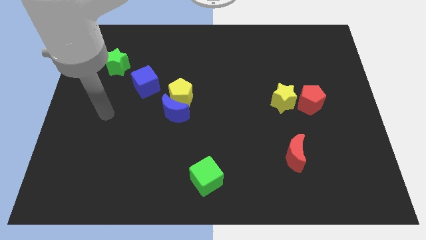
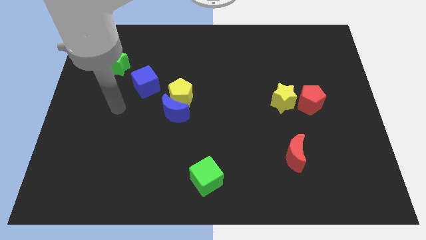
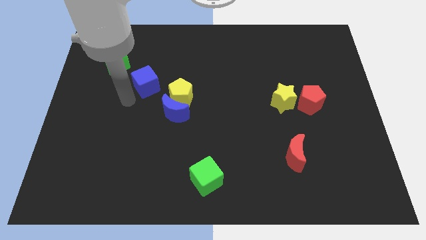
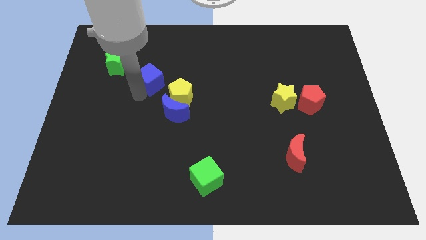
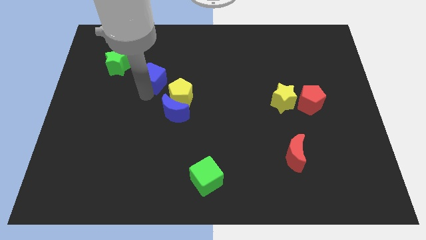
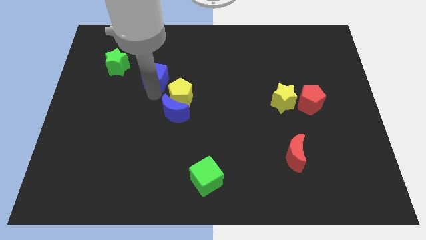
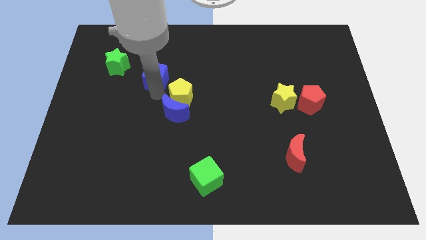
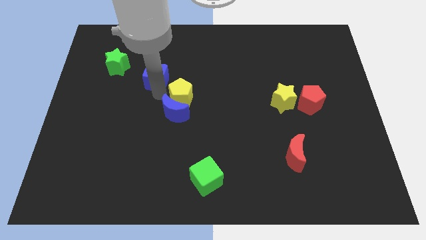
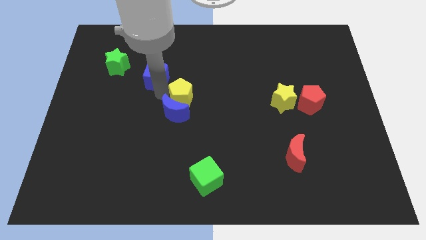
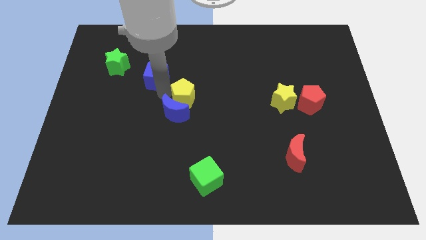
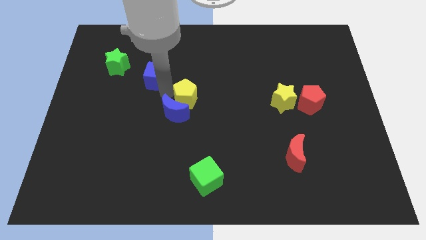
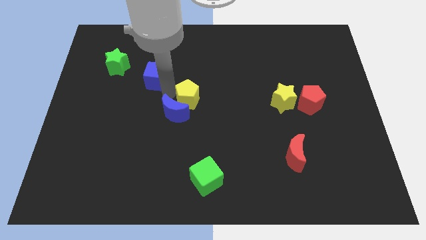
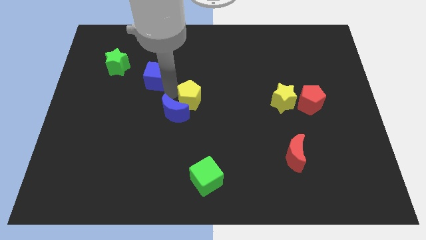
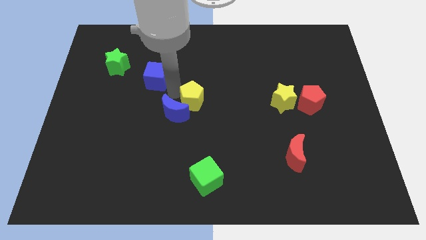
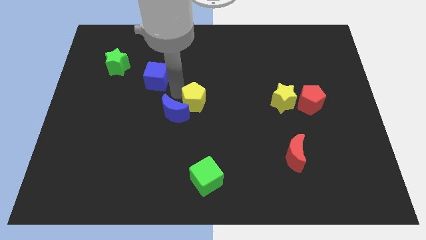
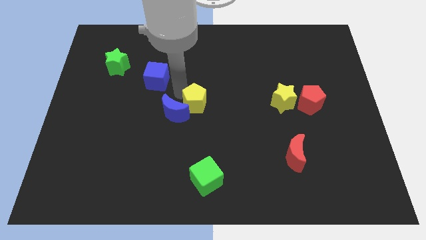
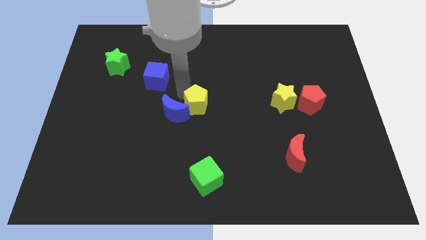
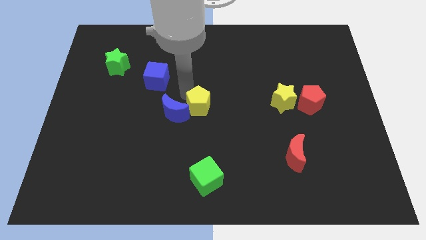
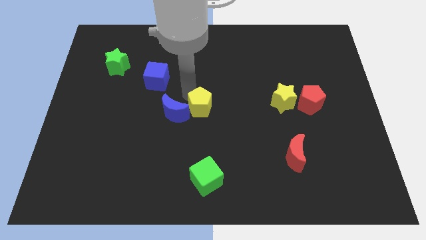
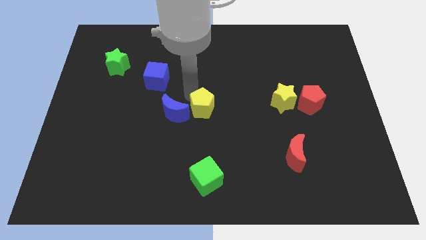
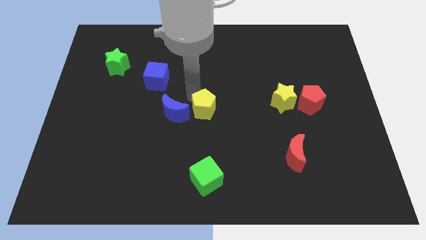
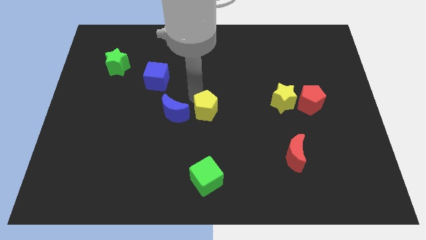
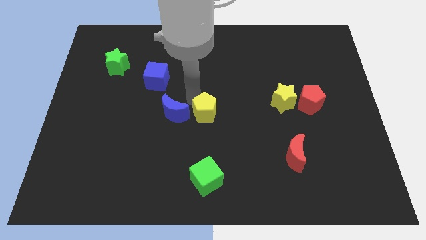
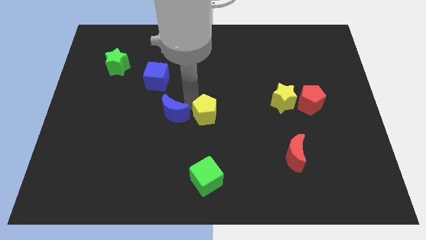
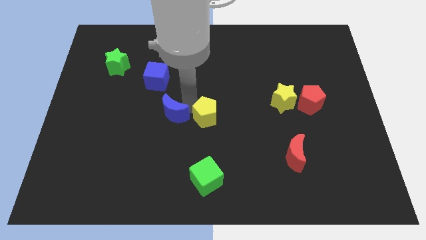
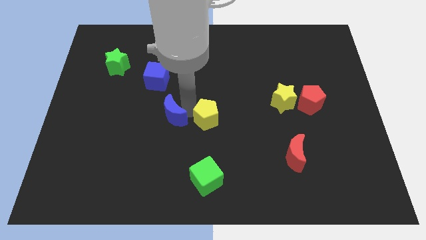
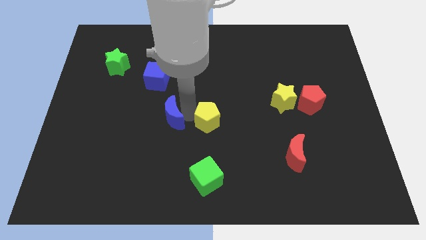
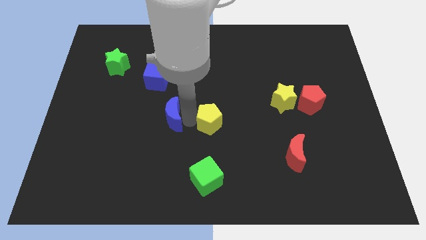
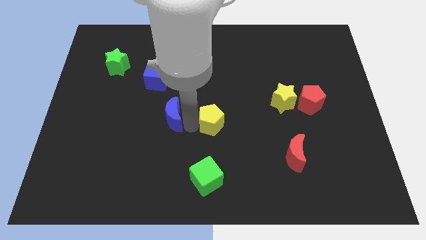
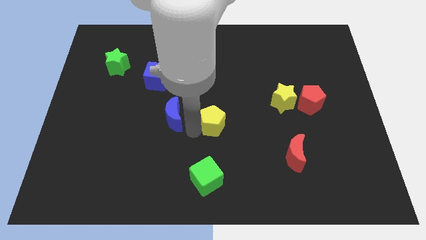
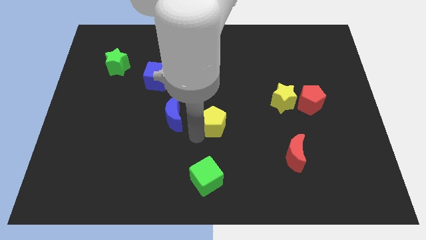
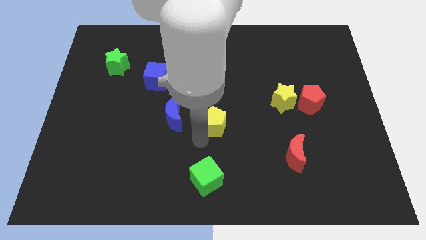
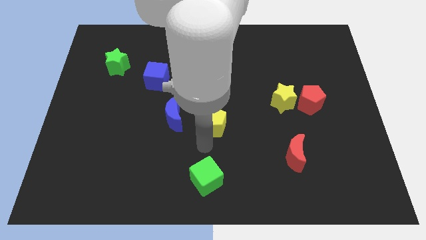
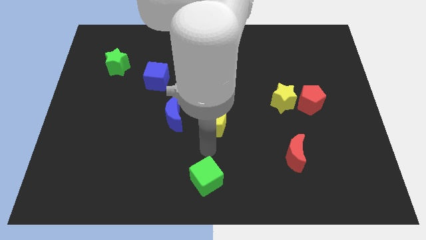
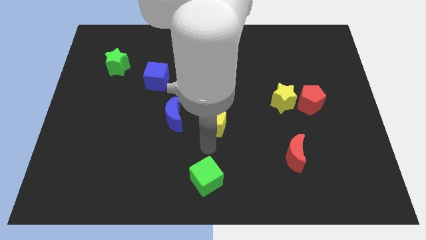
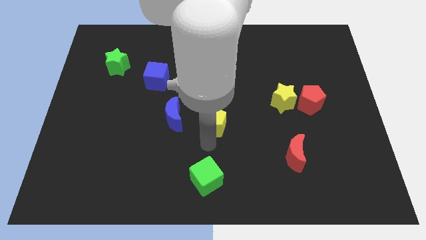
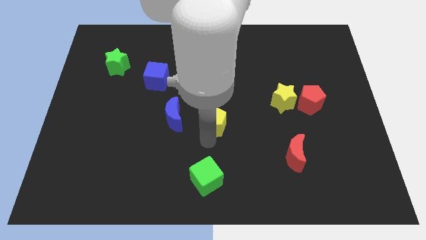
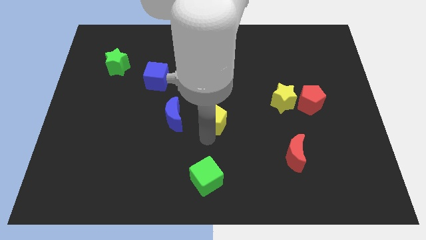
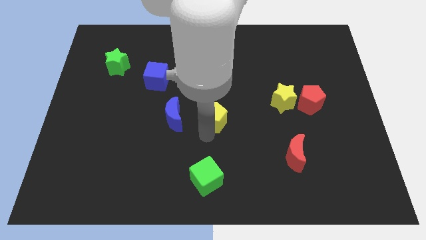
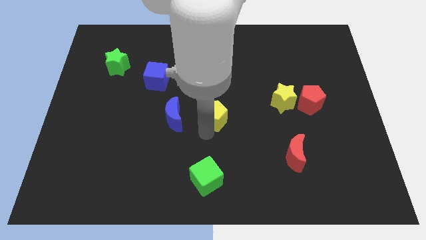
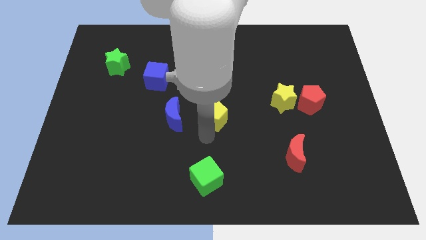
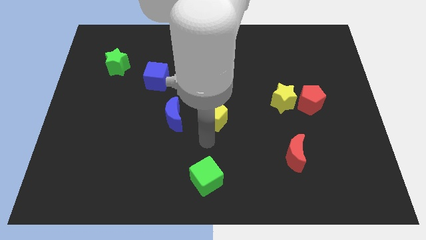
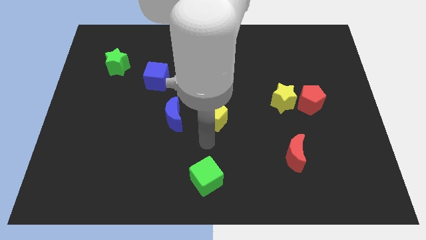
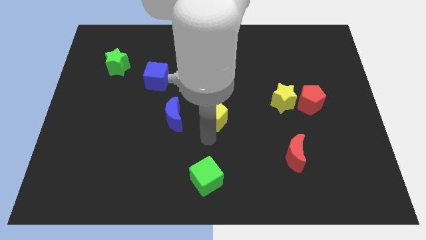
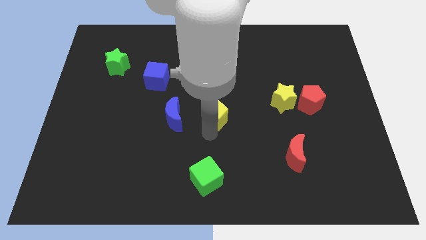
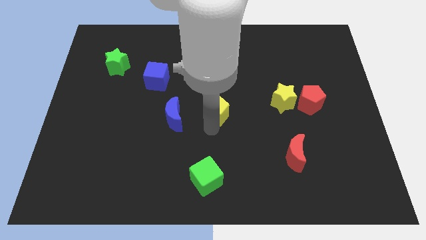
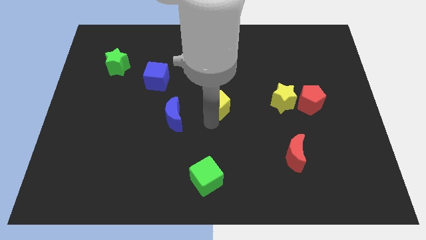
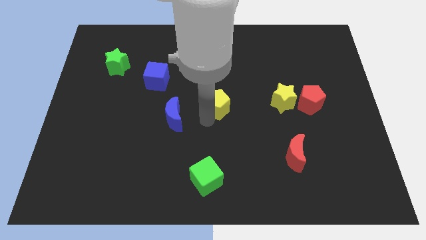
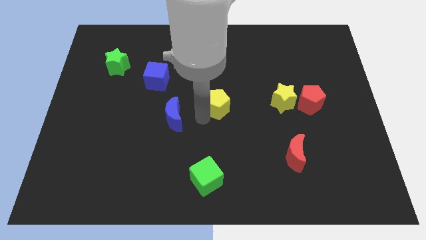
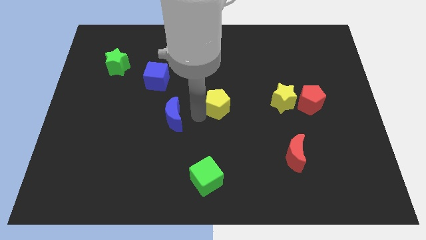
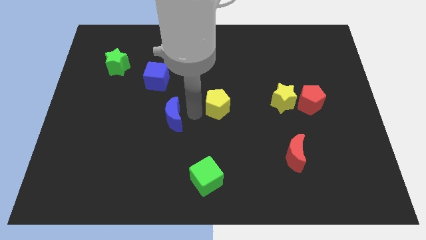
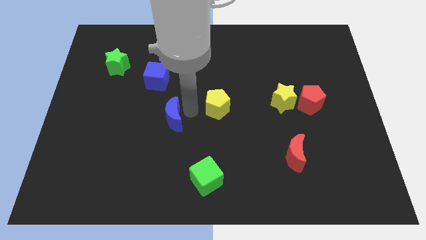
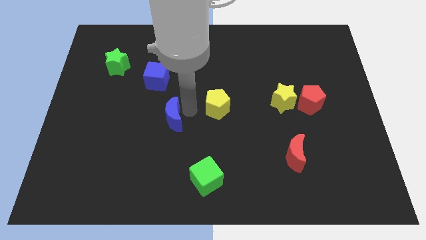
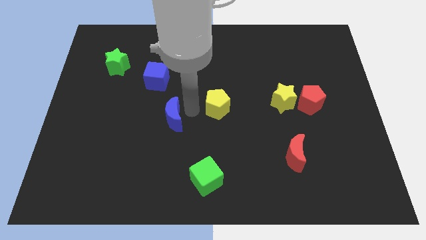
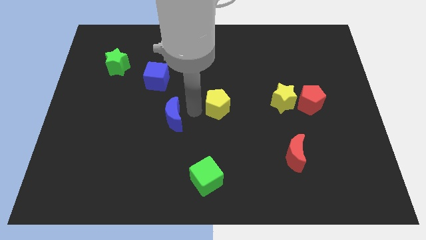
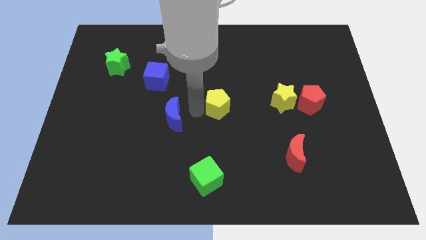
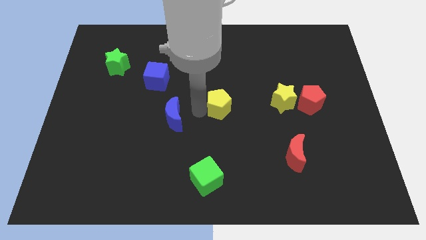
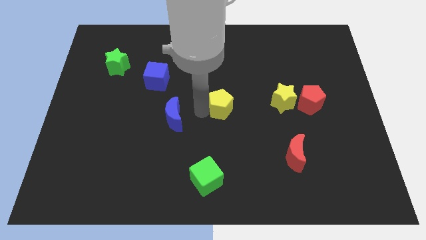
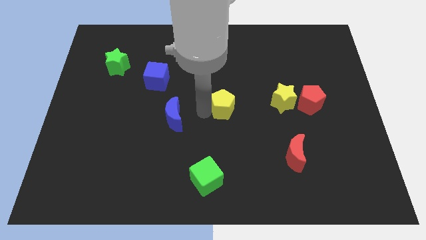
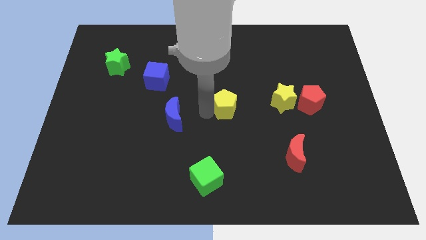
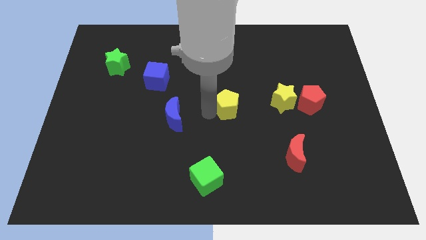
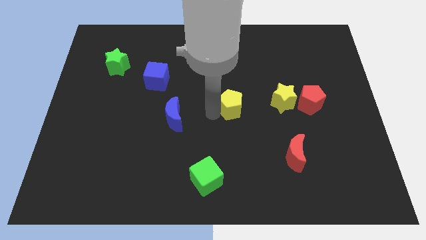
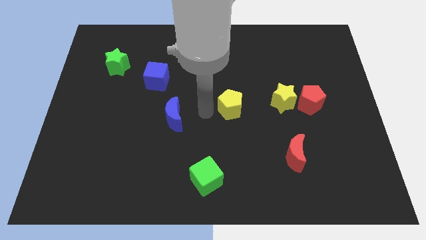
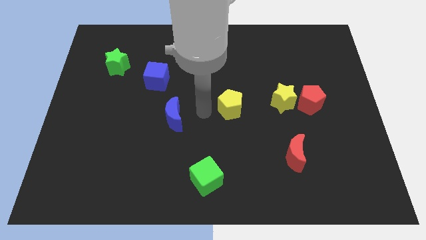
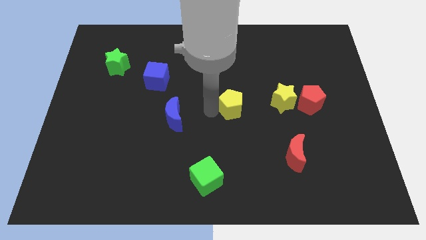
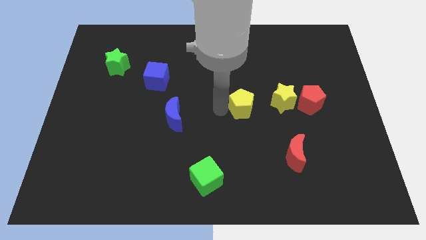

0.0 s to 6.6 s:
push the yellow pentagon to the left of the red pentagon

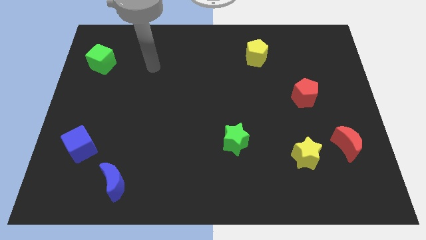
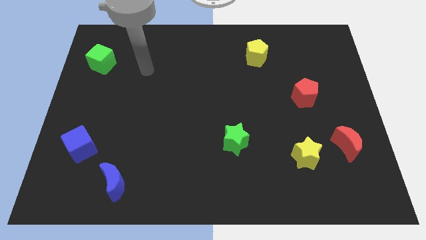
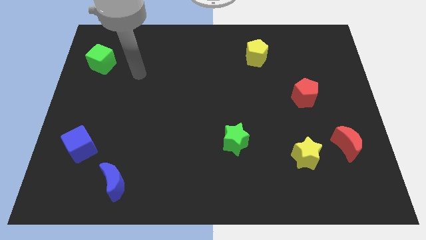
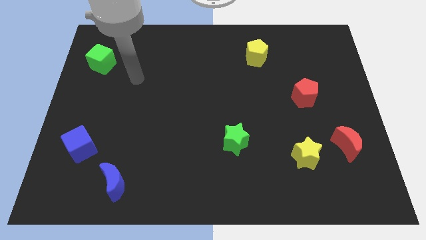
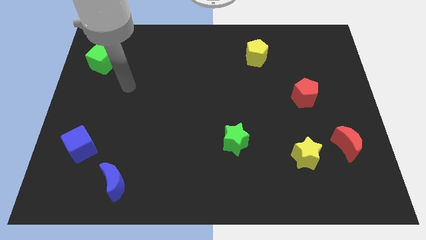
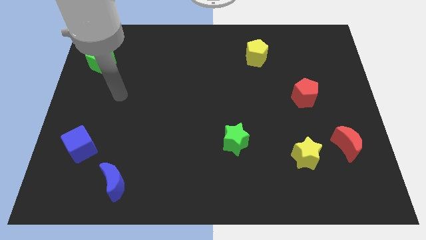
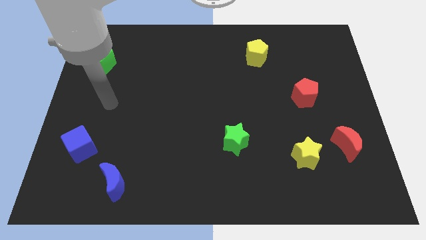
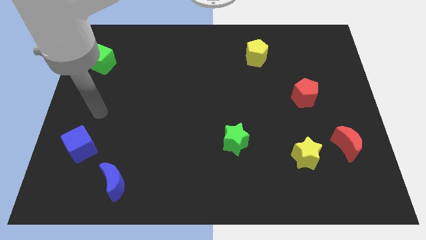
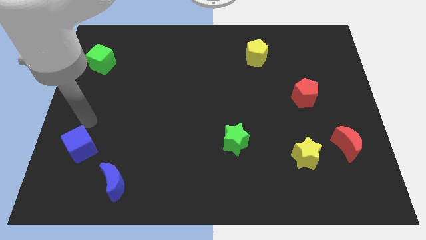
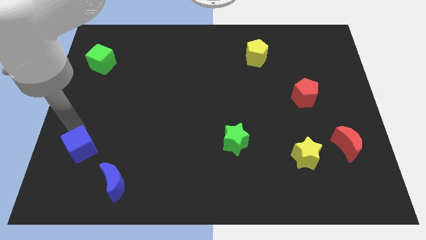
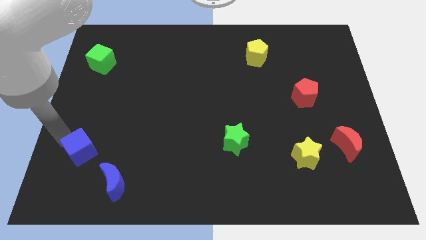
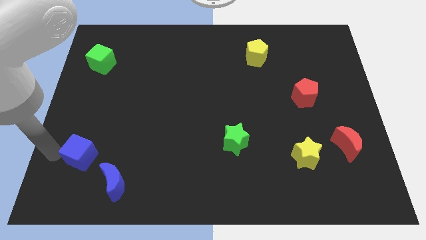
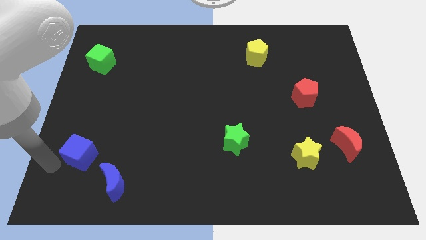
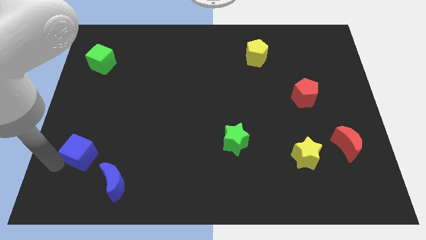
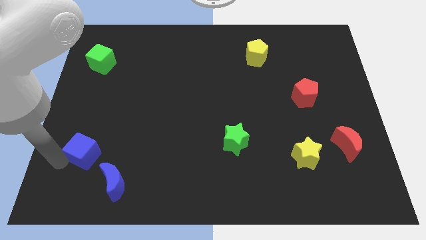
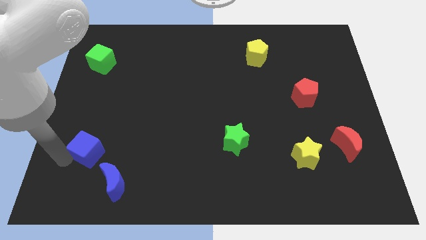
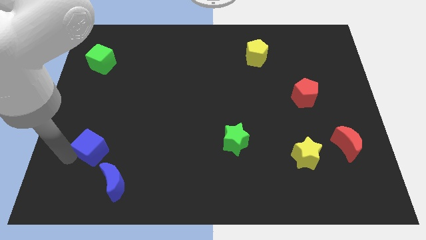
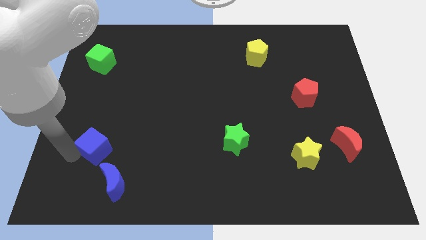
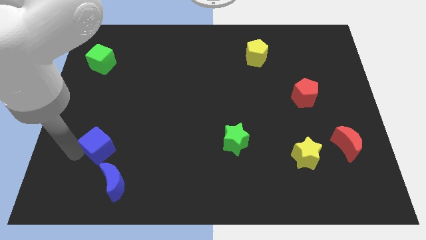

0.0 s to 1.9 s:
move the blue cube above the blue moon
